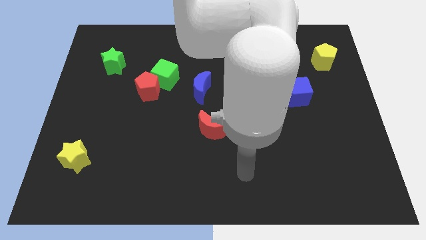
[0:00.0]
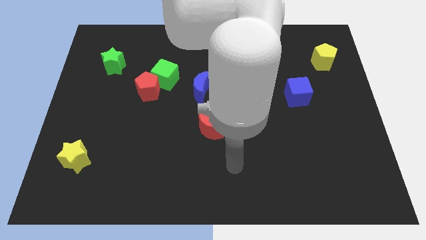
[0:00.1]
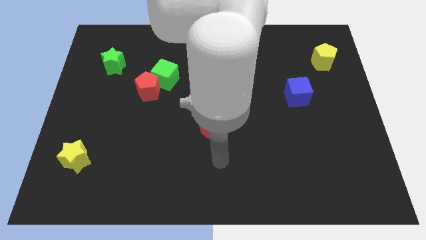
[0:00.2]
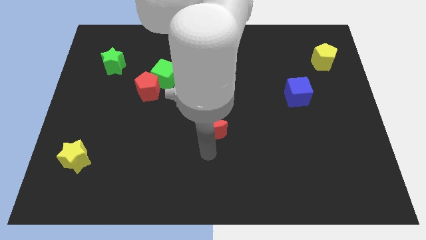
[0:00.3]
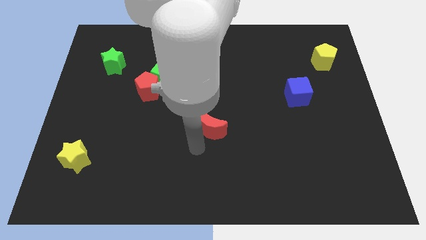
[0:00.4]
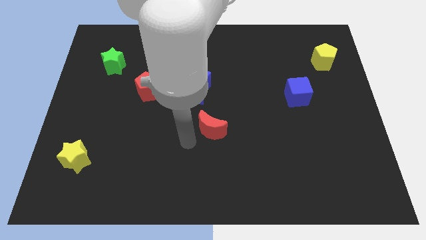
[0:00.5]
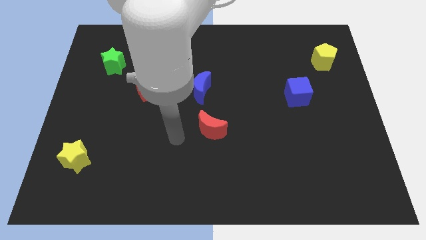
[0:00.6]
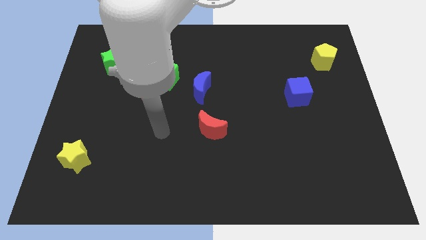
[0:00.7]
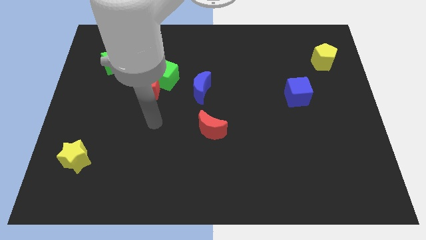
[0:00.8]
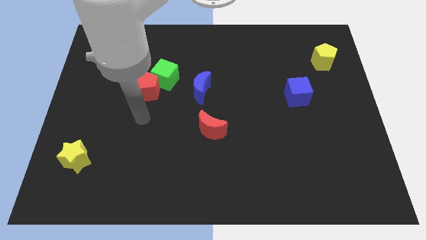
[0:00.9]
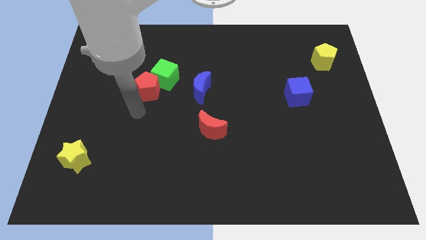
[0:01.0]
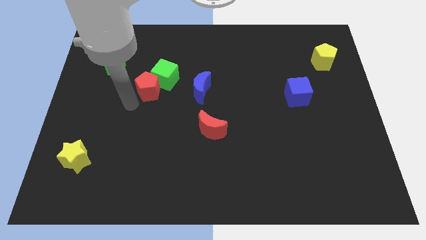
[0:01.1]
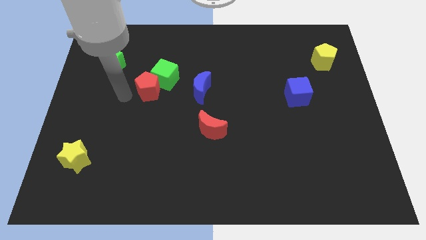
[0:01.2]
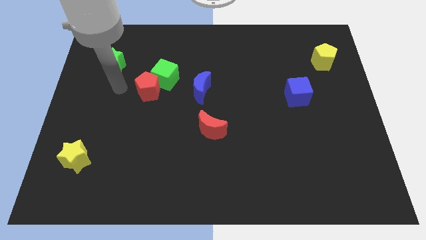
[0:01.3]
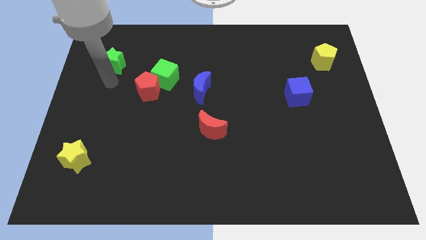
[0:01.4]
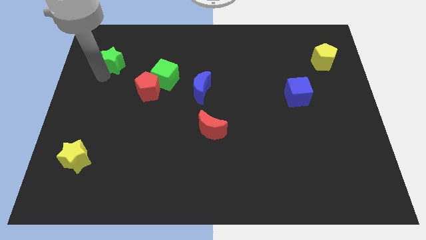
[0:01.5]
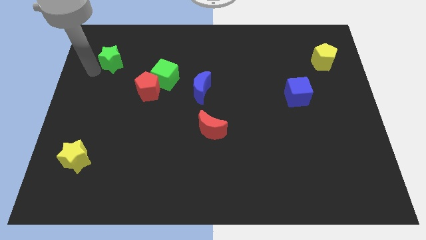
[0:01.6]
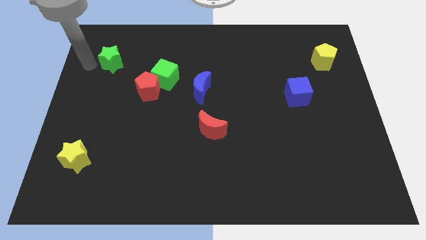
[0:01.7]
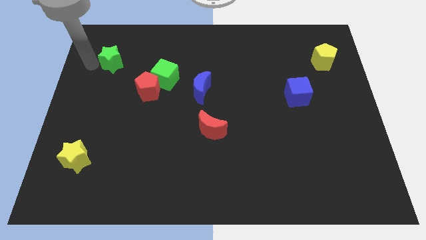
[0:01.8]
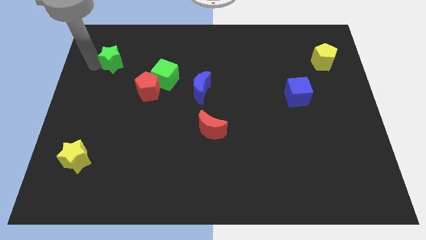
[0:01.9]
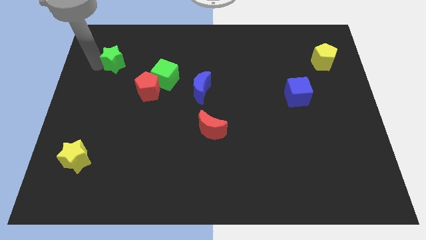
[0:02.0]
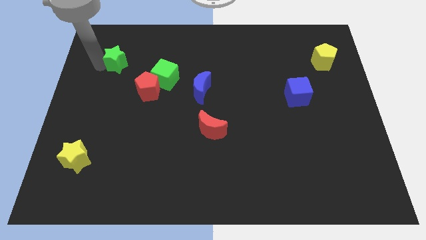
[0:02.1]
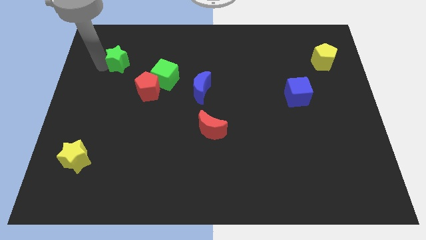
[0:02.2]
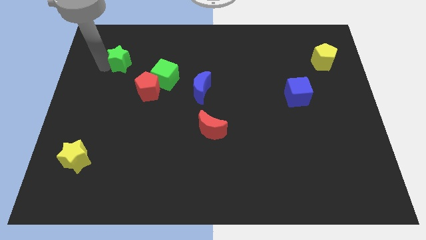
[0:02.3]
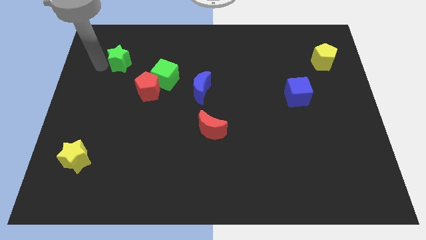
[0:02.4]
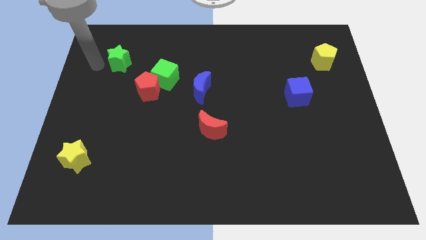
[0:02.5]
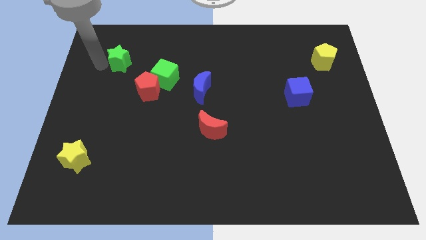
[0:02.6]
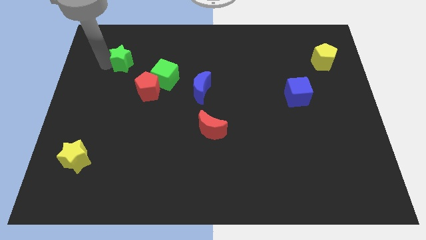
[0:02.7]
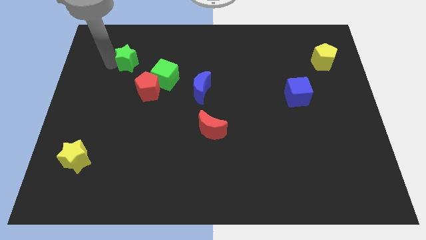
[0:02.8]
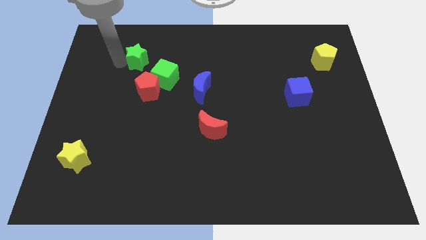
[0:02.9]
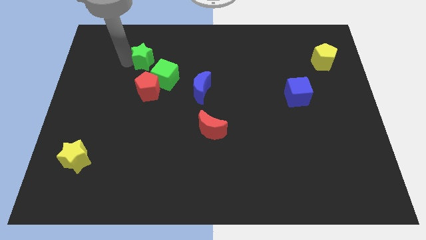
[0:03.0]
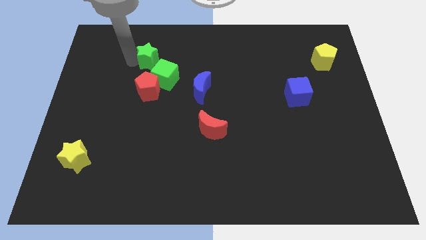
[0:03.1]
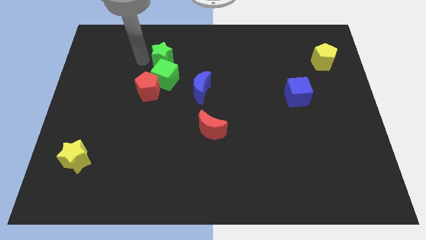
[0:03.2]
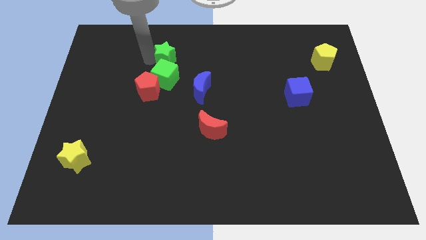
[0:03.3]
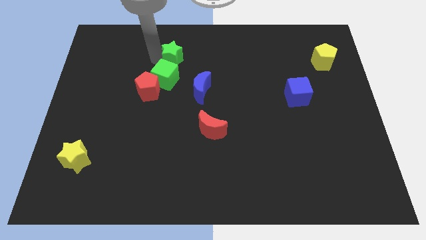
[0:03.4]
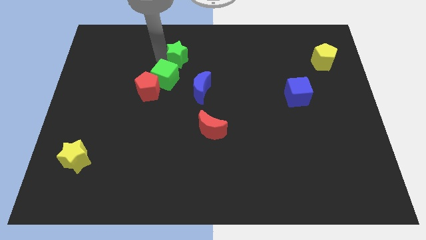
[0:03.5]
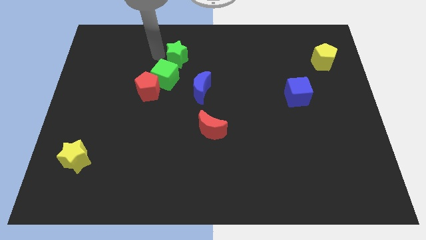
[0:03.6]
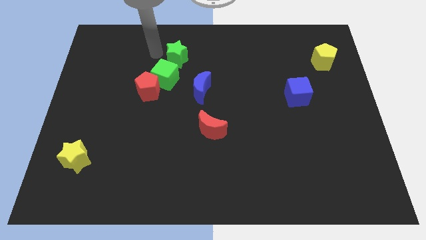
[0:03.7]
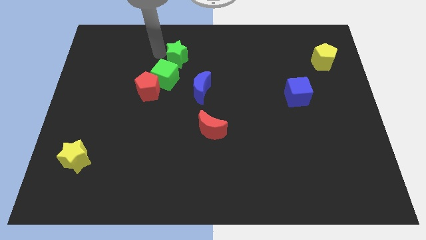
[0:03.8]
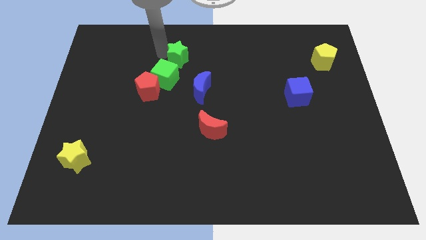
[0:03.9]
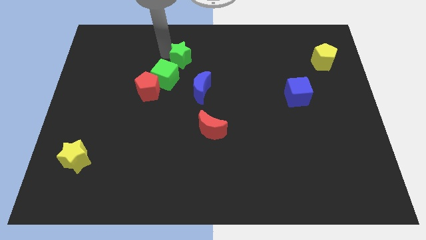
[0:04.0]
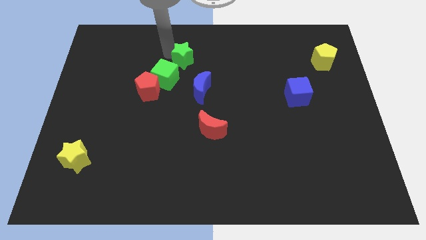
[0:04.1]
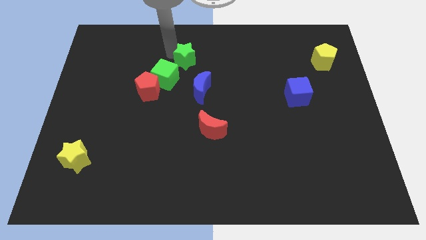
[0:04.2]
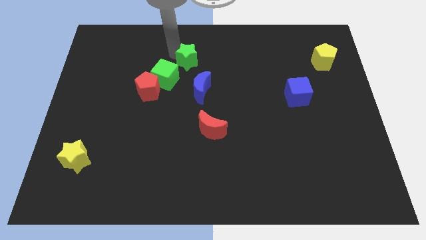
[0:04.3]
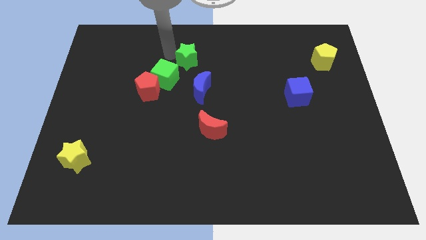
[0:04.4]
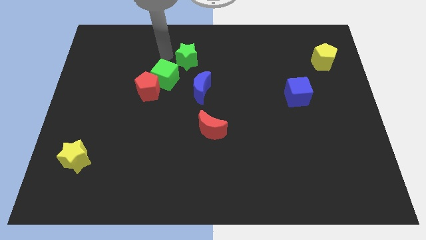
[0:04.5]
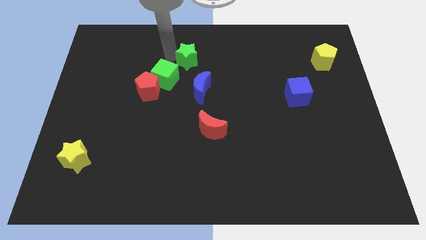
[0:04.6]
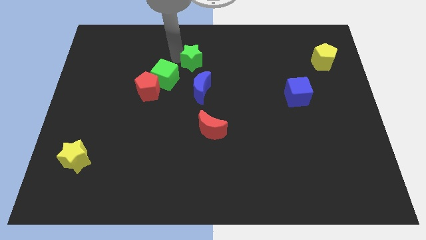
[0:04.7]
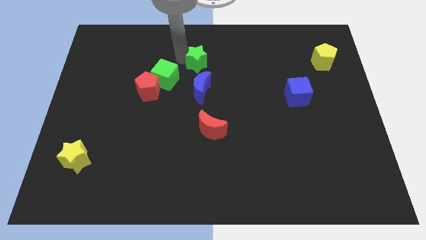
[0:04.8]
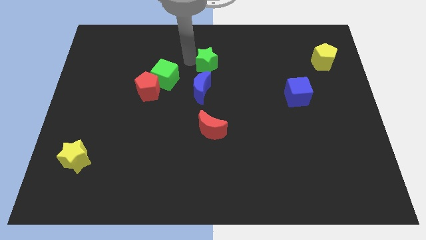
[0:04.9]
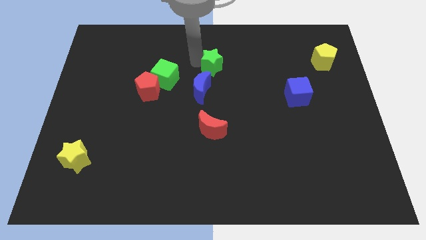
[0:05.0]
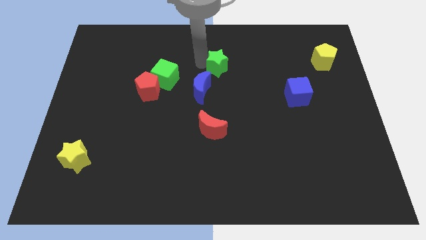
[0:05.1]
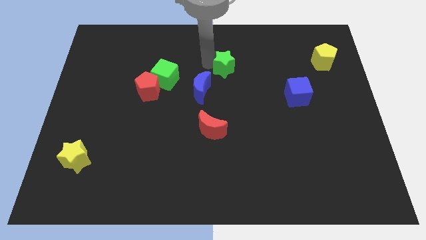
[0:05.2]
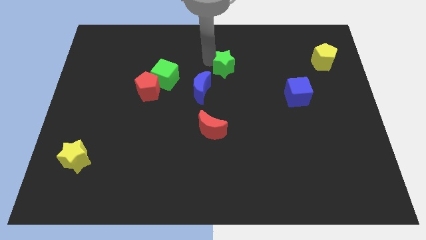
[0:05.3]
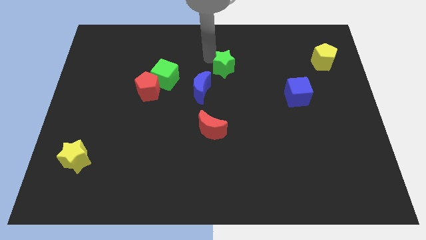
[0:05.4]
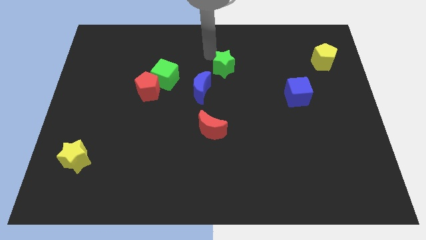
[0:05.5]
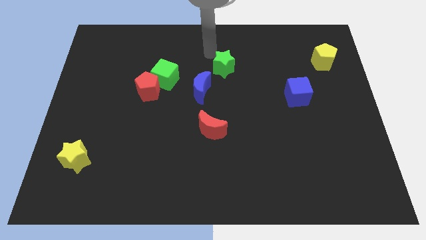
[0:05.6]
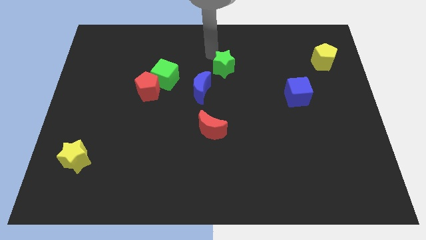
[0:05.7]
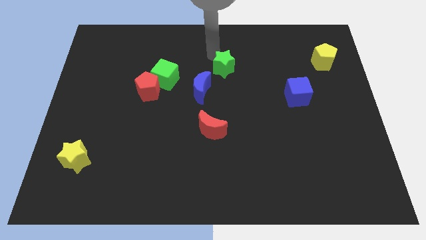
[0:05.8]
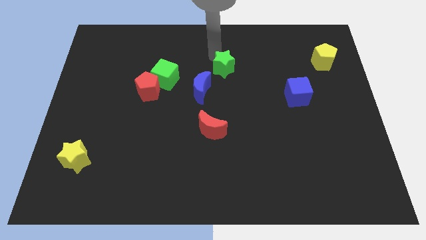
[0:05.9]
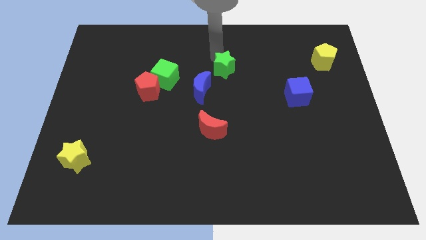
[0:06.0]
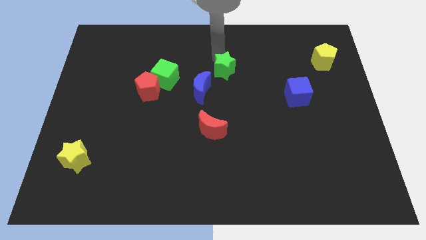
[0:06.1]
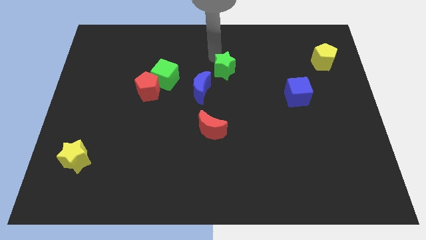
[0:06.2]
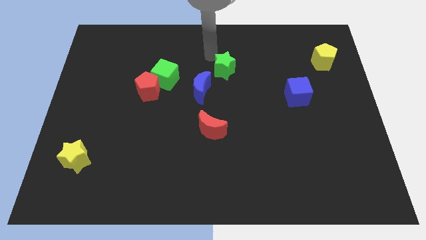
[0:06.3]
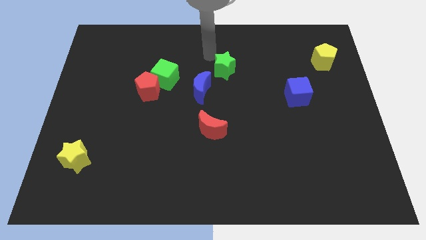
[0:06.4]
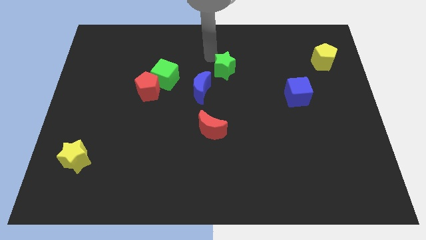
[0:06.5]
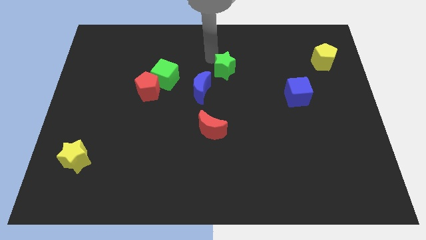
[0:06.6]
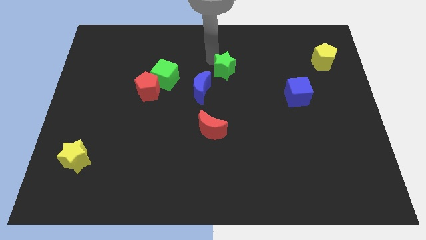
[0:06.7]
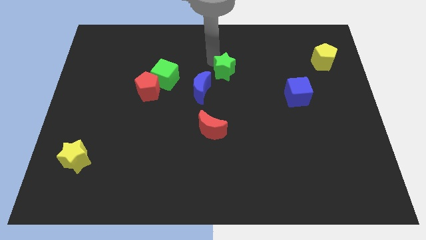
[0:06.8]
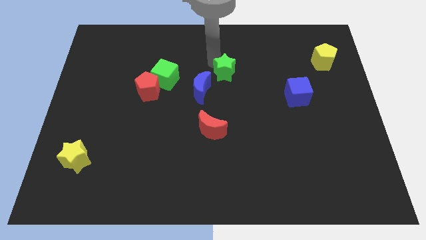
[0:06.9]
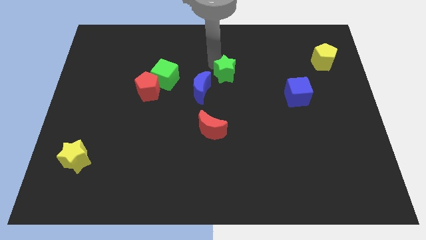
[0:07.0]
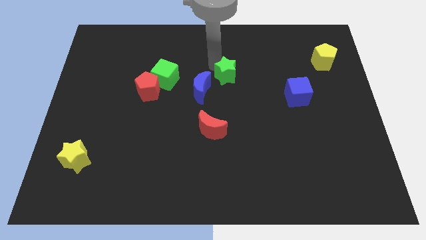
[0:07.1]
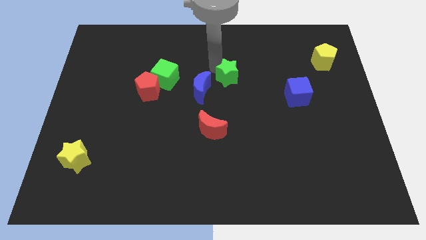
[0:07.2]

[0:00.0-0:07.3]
put the green star right of the blue moon
